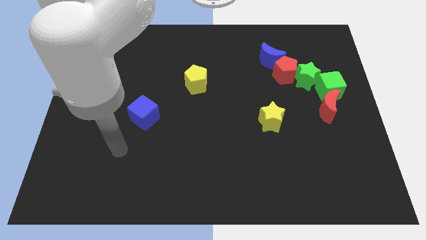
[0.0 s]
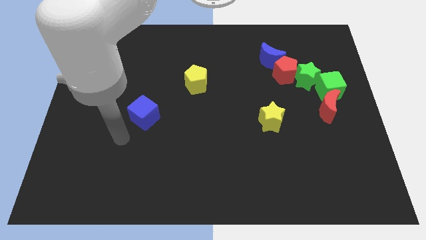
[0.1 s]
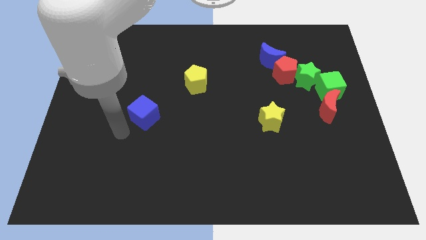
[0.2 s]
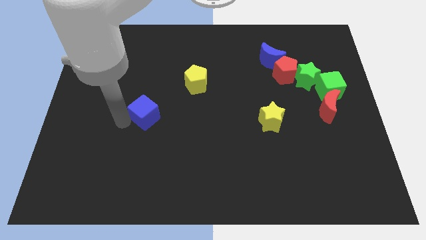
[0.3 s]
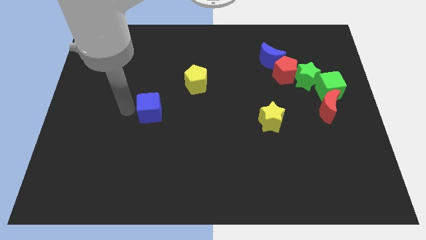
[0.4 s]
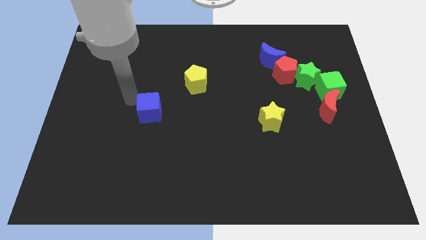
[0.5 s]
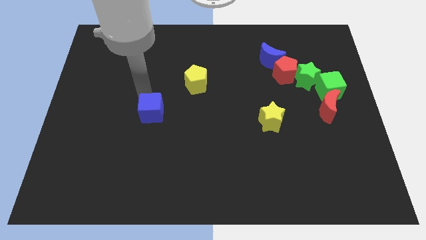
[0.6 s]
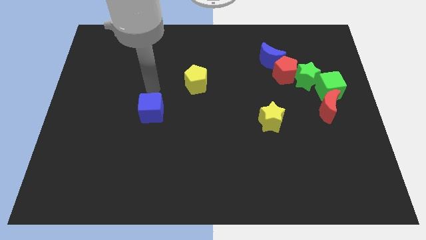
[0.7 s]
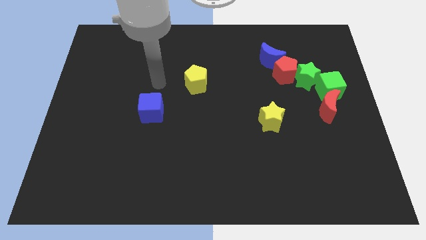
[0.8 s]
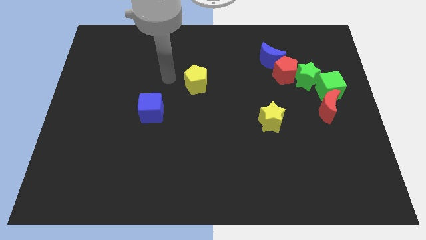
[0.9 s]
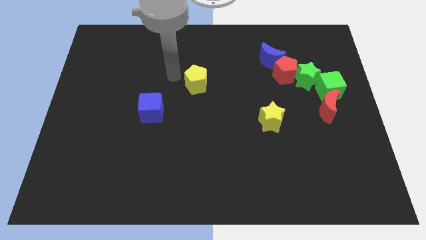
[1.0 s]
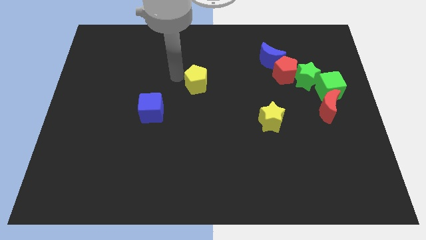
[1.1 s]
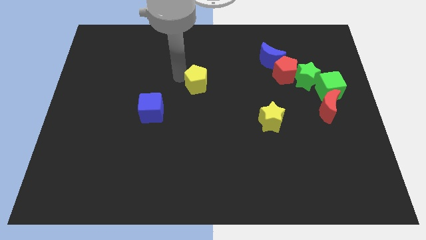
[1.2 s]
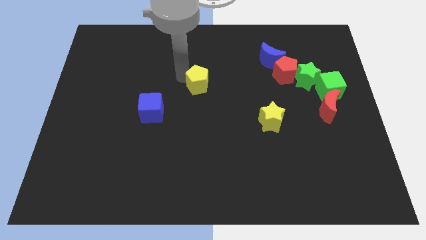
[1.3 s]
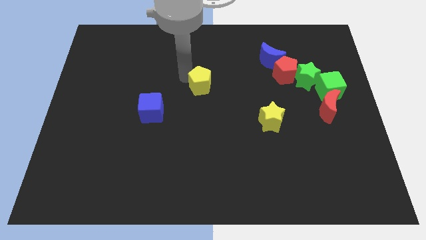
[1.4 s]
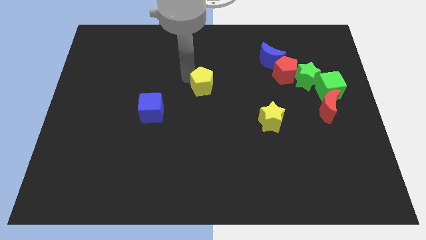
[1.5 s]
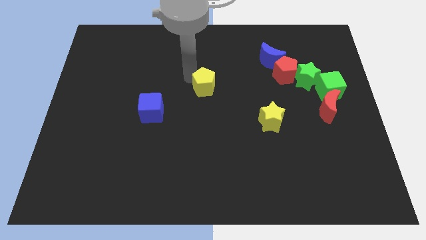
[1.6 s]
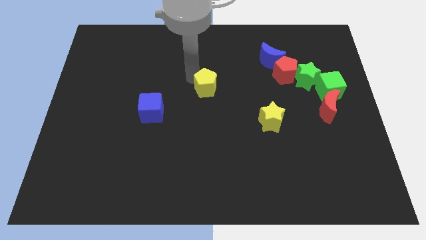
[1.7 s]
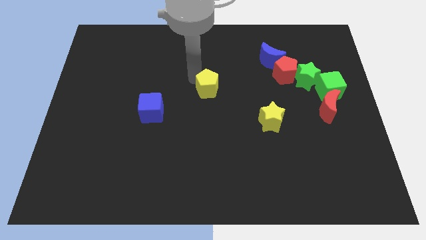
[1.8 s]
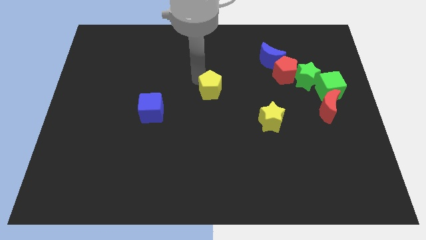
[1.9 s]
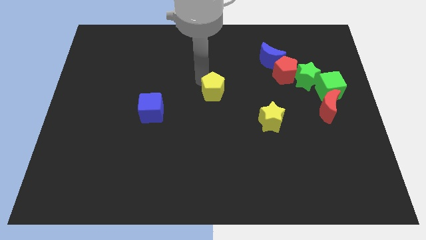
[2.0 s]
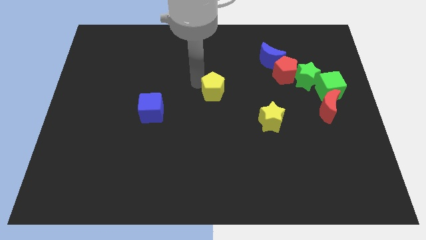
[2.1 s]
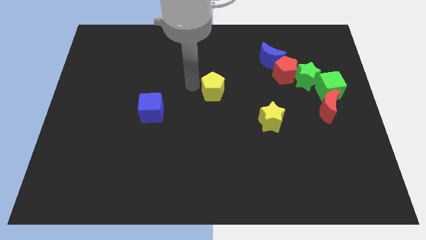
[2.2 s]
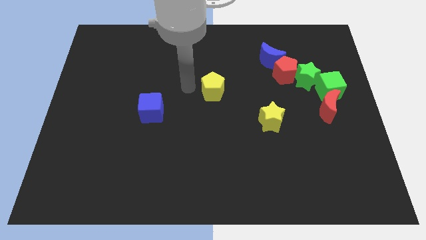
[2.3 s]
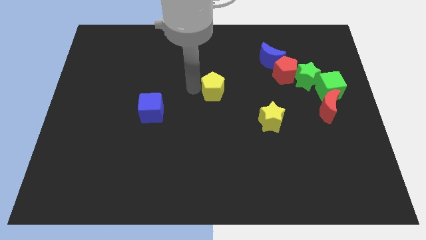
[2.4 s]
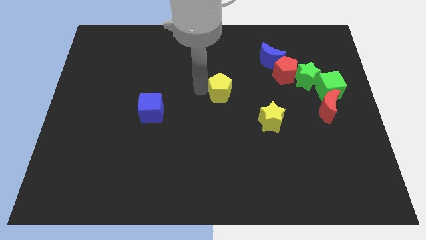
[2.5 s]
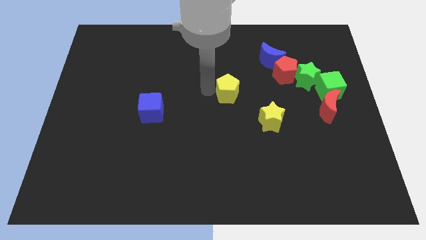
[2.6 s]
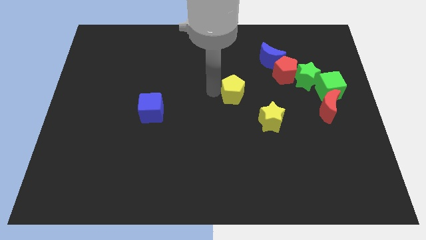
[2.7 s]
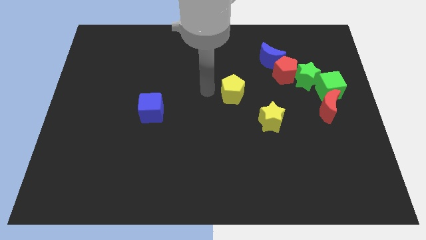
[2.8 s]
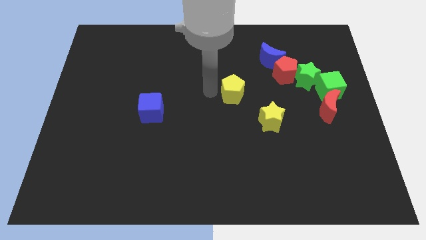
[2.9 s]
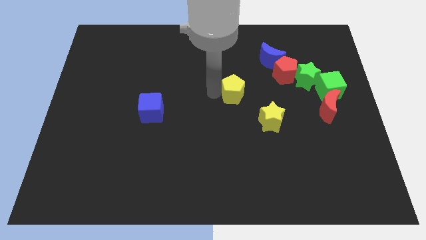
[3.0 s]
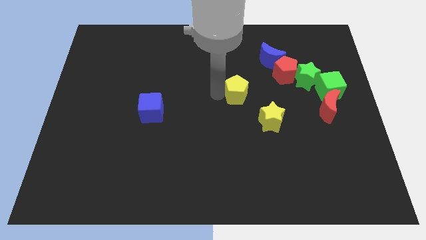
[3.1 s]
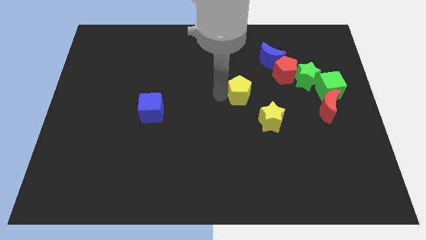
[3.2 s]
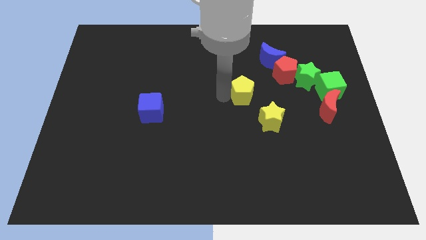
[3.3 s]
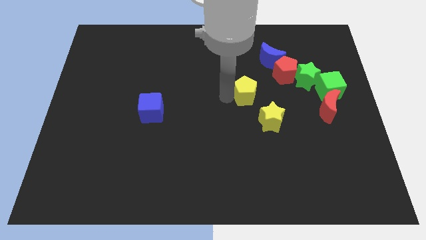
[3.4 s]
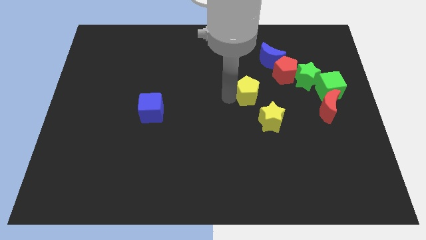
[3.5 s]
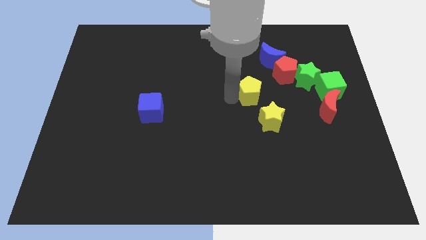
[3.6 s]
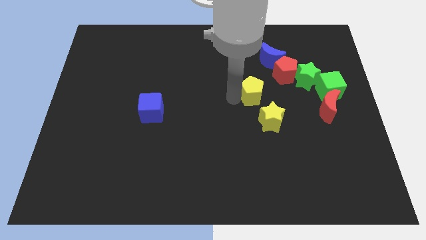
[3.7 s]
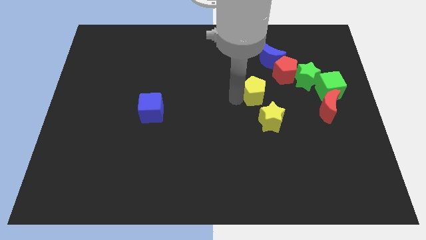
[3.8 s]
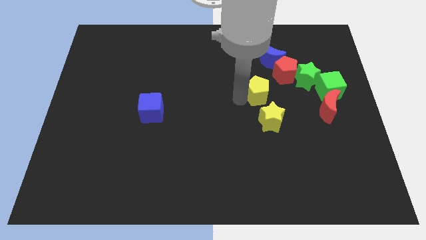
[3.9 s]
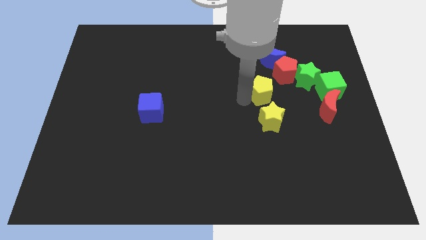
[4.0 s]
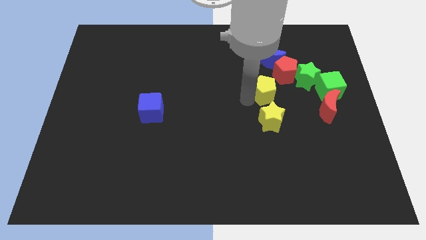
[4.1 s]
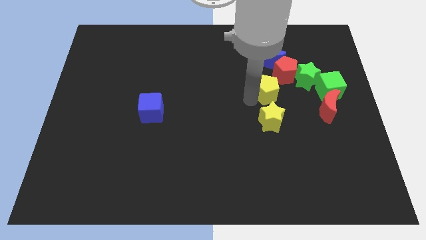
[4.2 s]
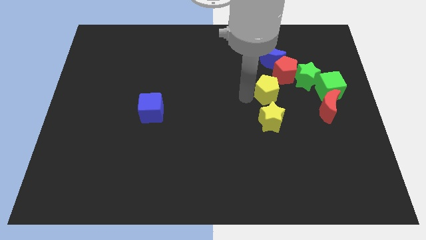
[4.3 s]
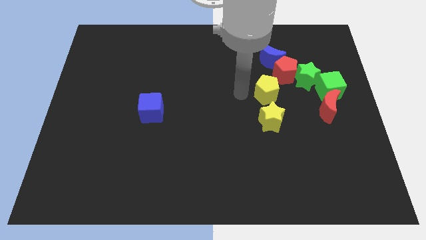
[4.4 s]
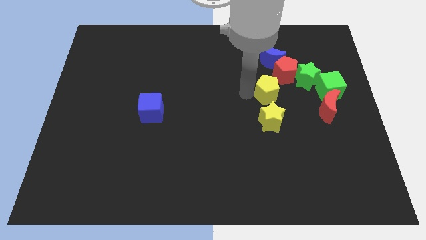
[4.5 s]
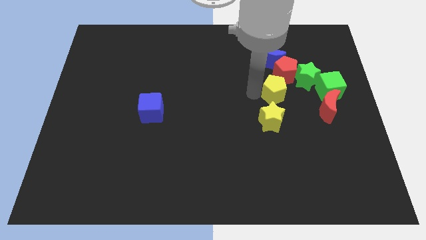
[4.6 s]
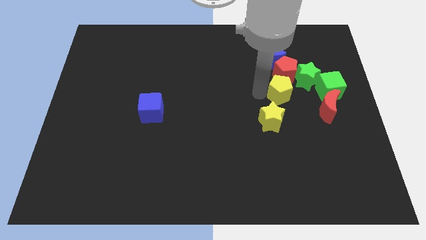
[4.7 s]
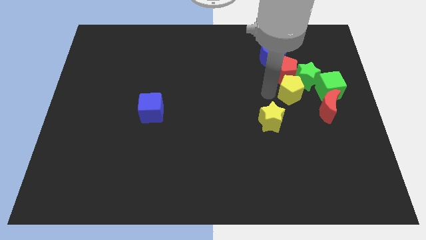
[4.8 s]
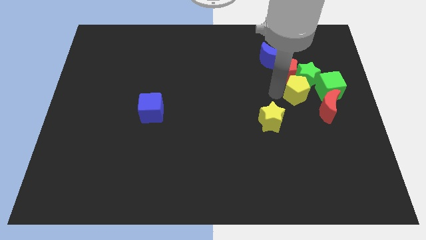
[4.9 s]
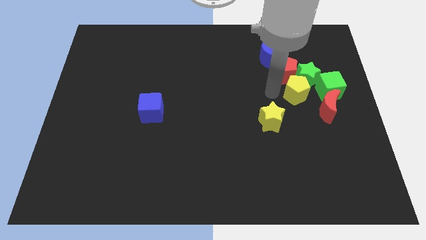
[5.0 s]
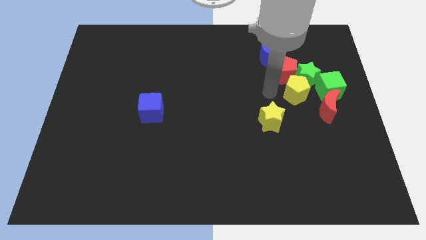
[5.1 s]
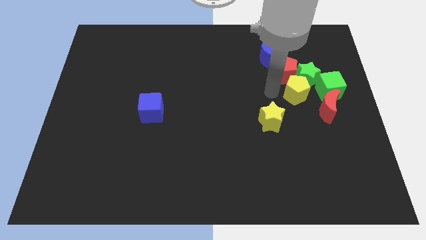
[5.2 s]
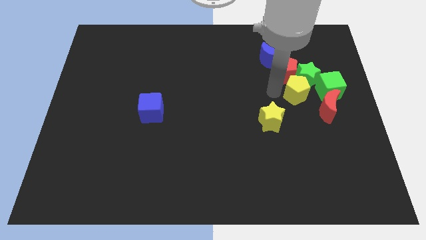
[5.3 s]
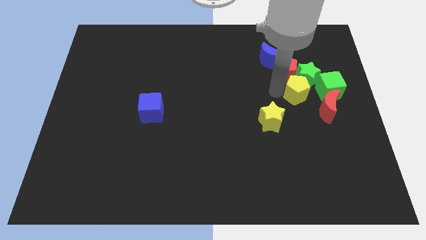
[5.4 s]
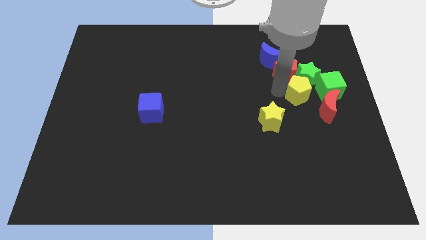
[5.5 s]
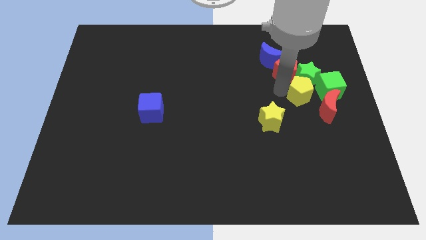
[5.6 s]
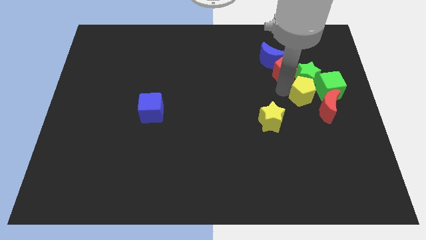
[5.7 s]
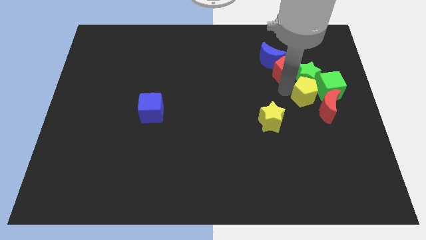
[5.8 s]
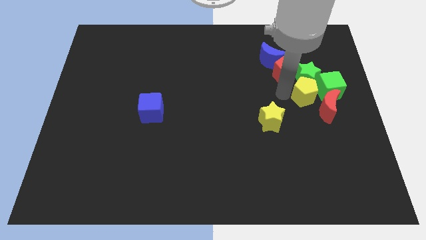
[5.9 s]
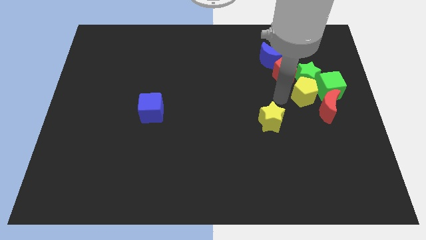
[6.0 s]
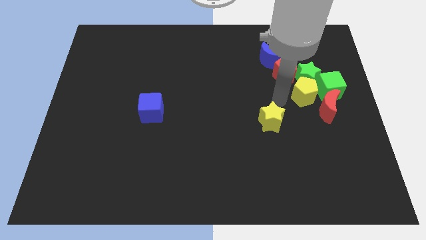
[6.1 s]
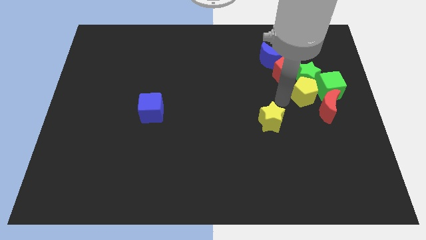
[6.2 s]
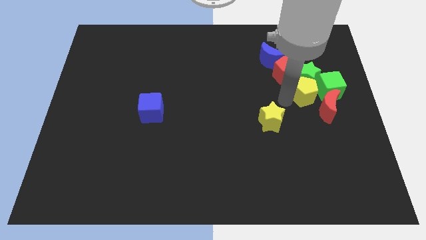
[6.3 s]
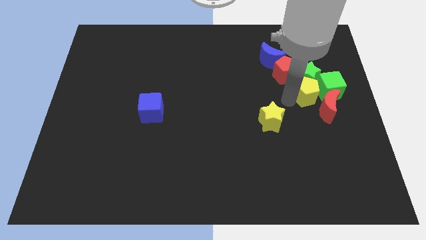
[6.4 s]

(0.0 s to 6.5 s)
put the yellow pentagon next to the green cube
